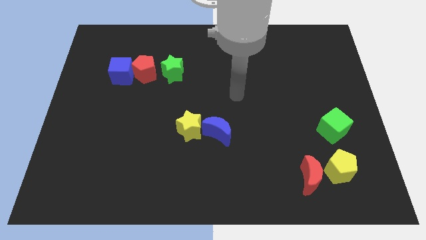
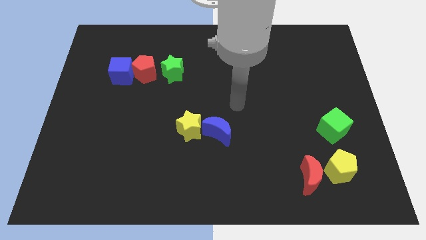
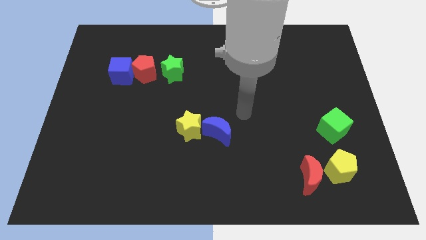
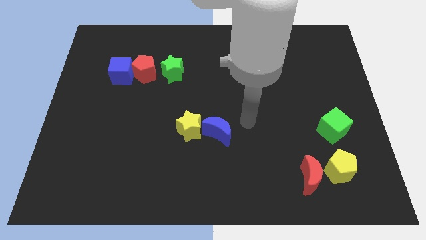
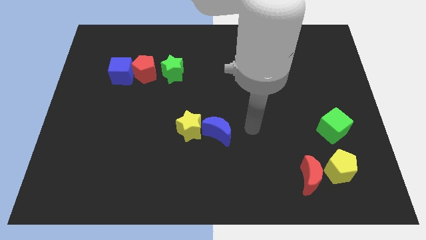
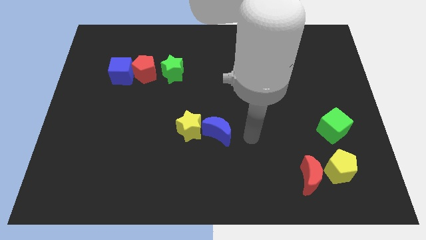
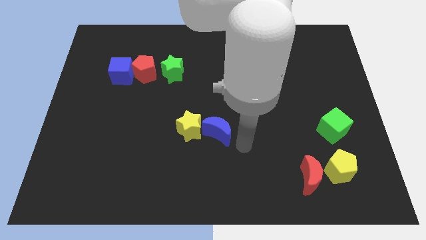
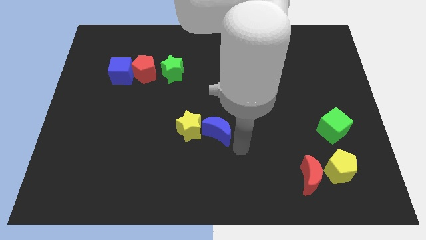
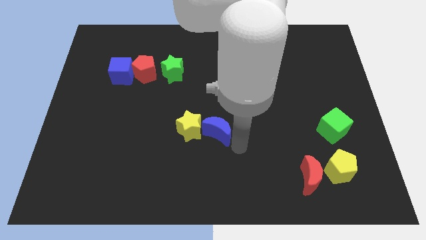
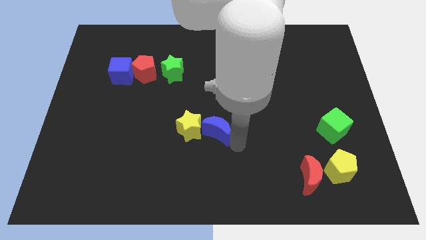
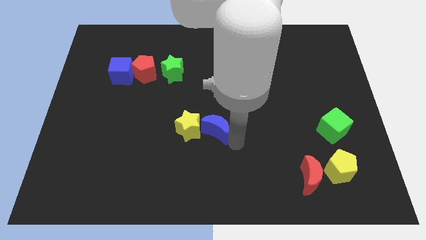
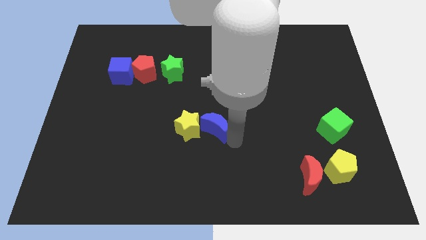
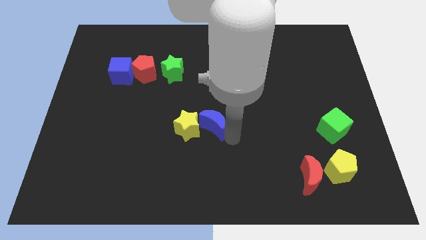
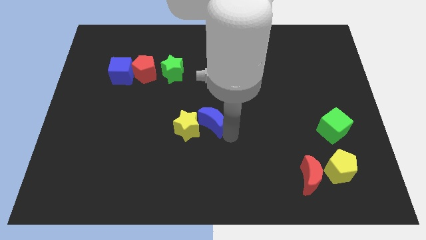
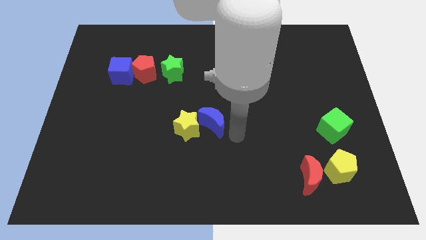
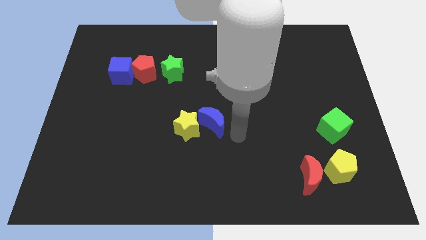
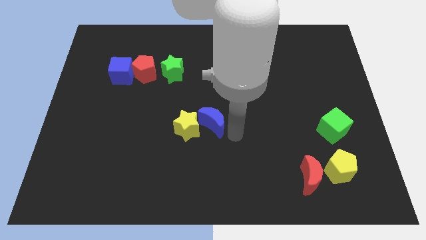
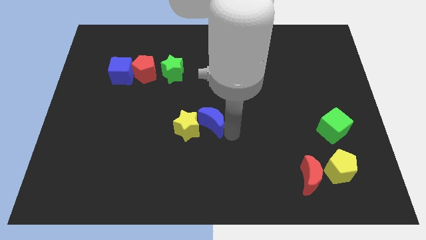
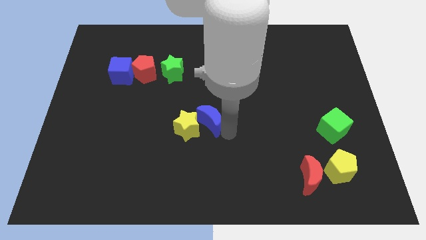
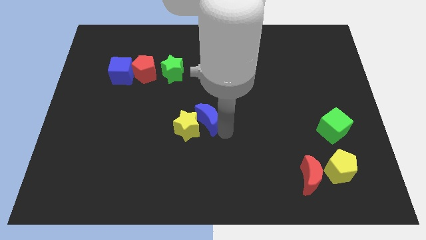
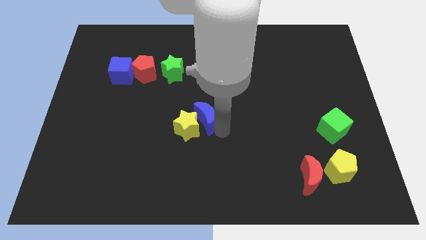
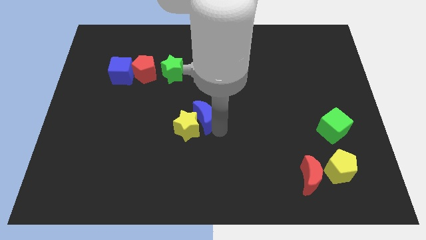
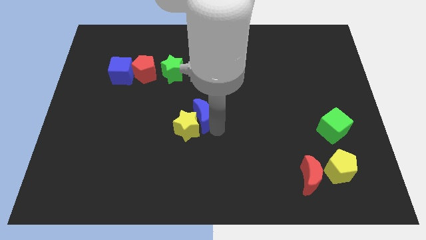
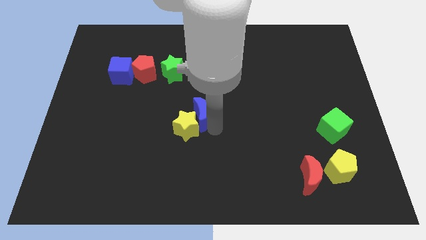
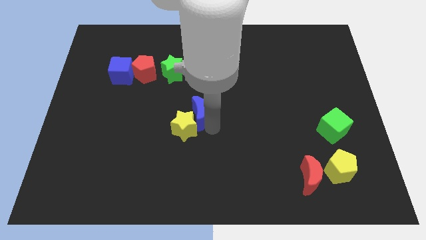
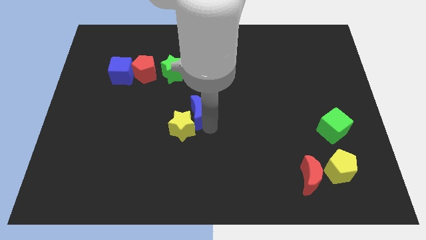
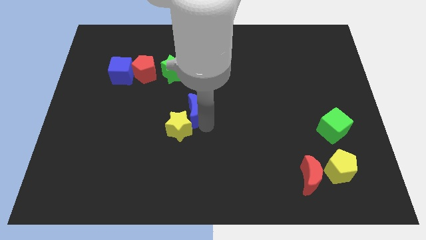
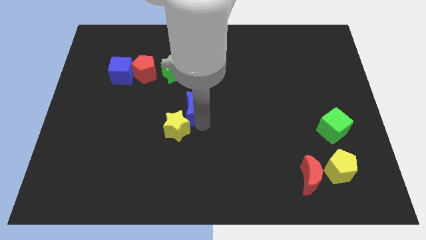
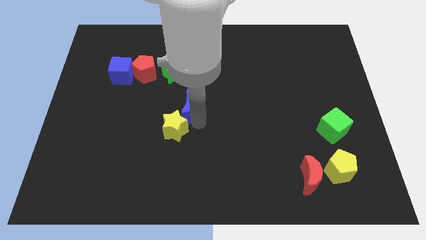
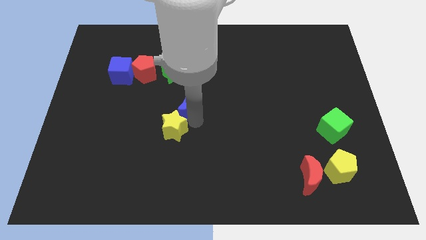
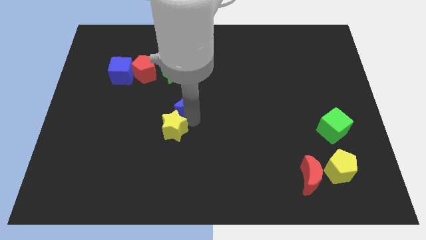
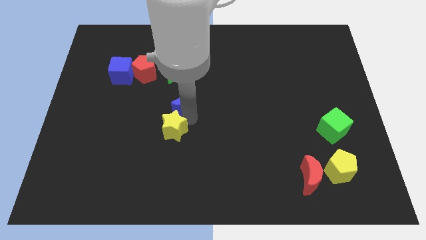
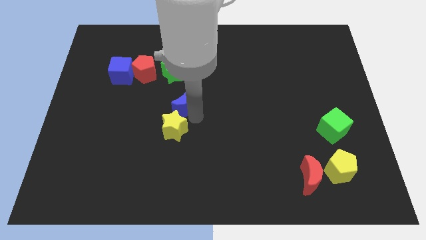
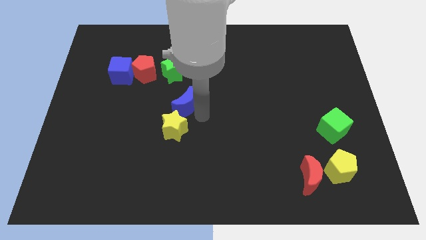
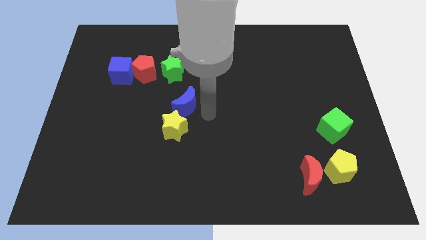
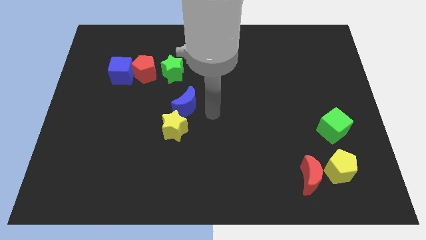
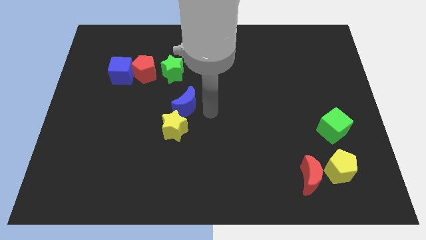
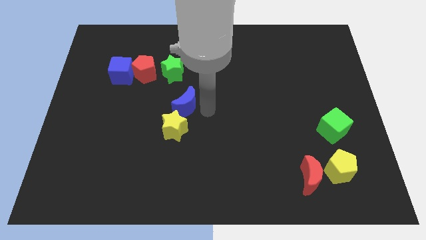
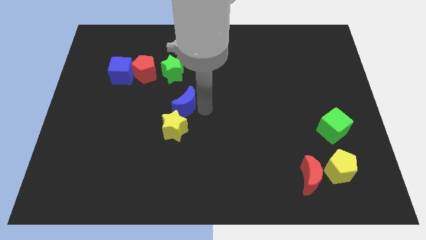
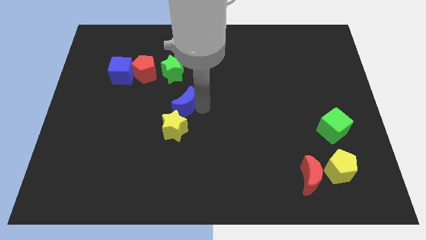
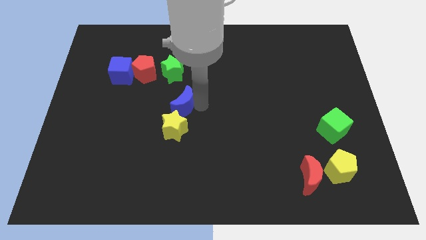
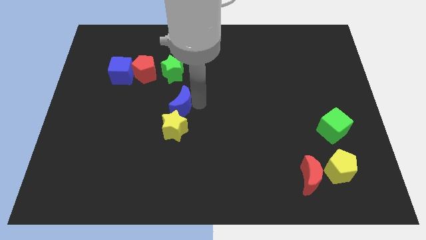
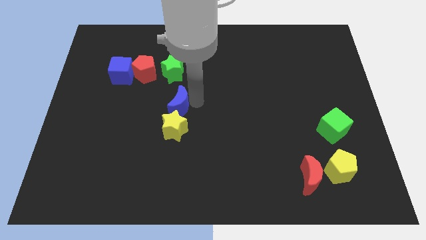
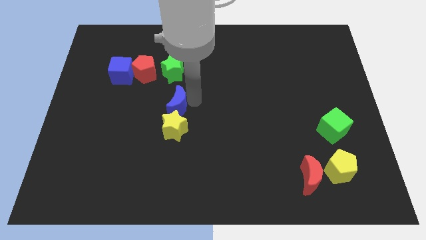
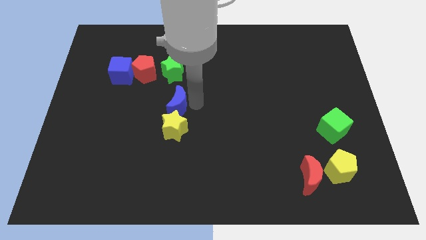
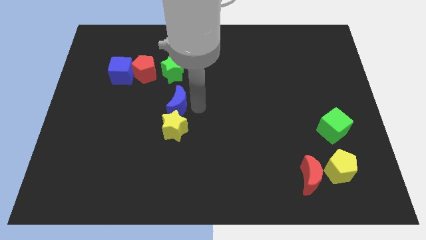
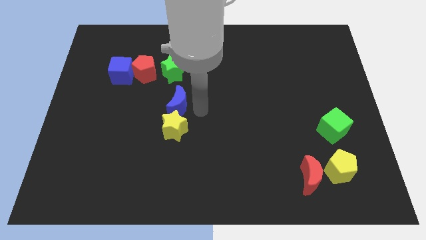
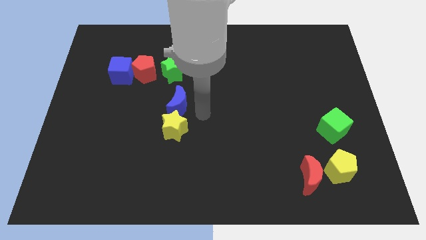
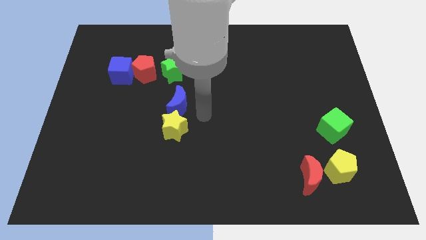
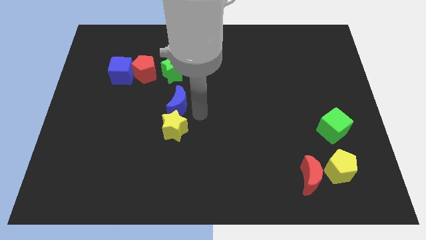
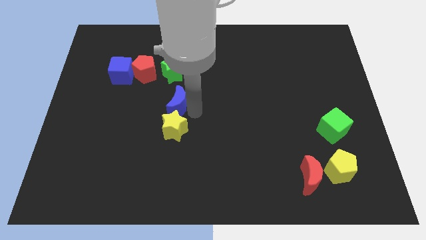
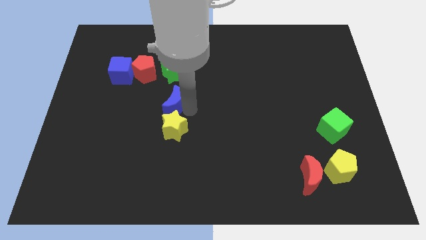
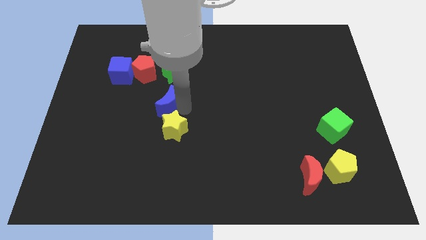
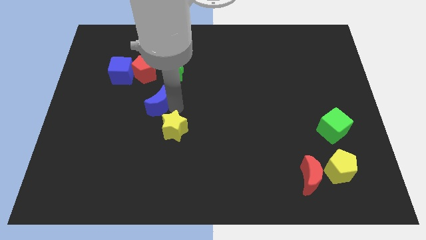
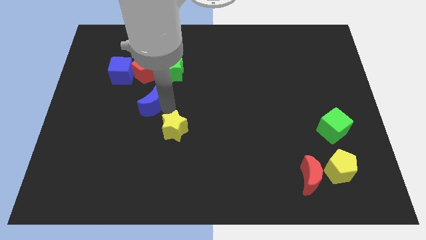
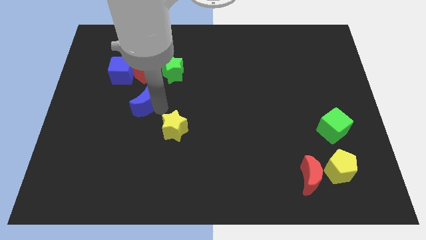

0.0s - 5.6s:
put the blue moon diagonally down and to the right of the blue cube

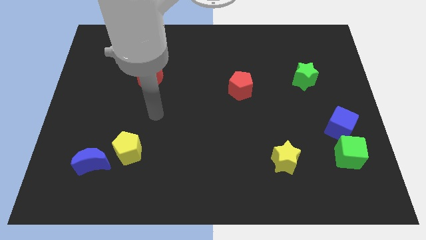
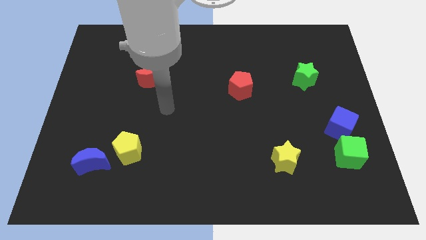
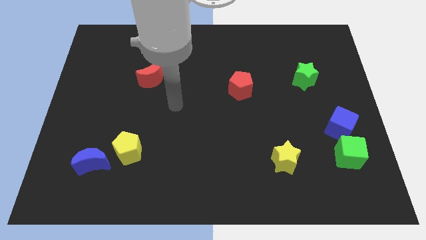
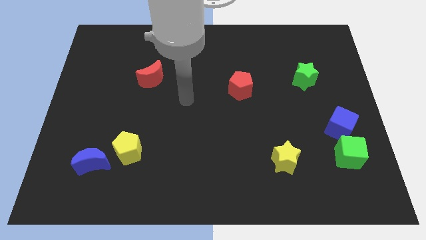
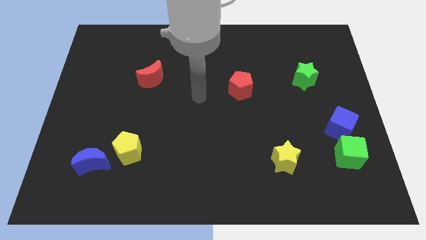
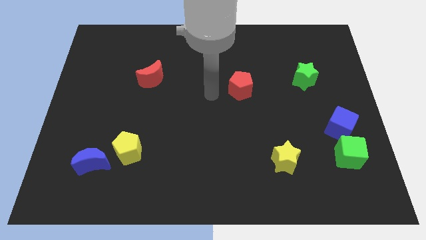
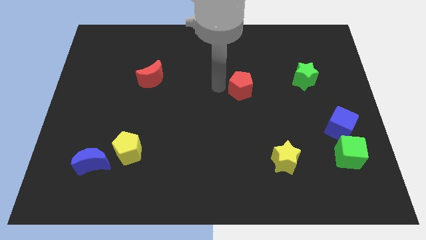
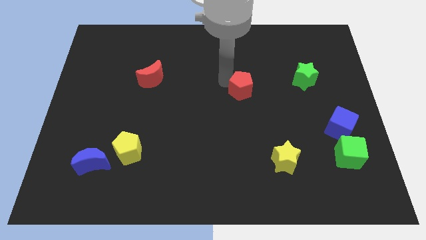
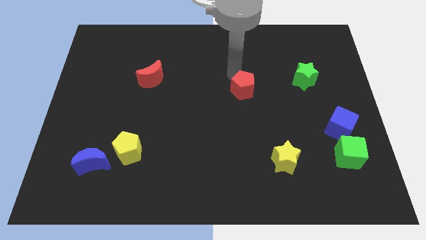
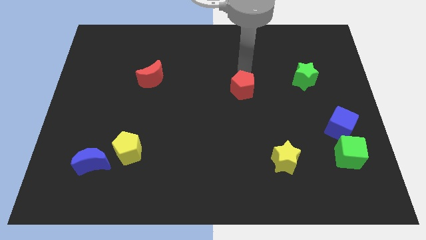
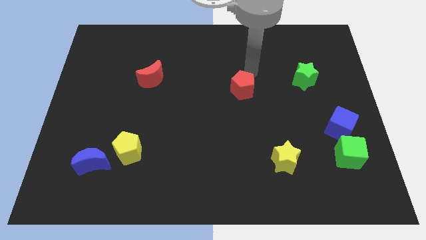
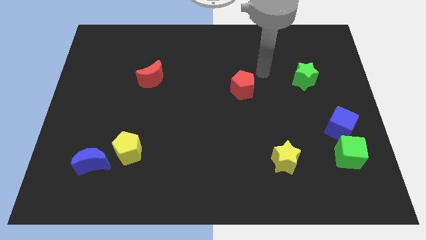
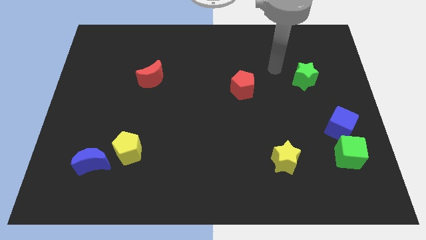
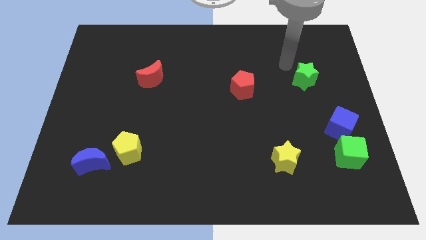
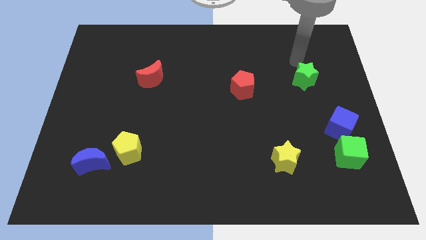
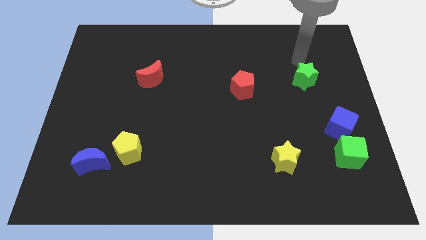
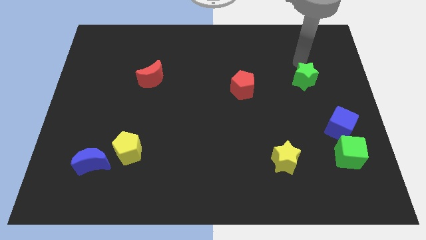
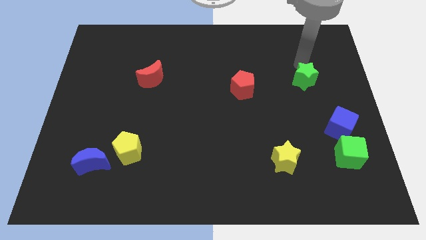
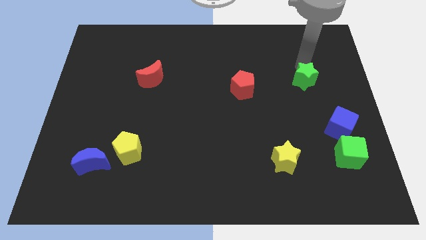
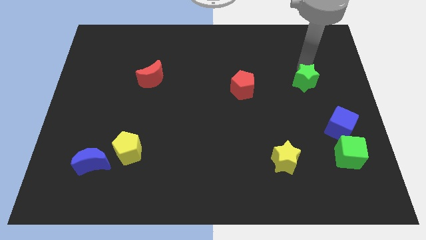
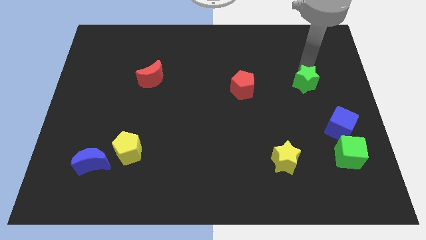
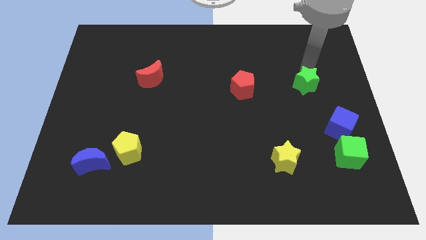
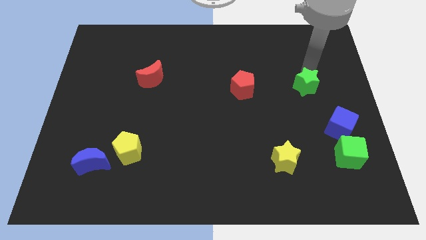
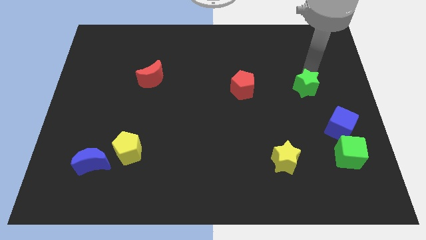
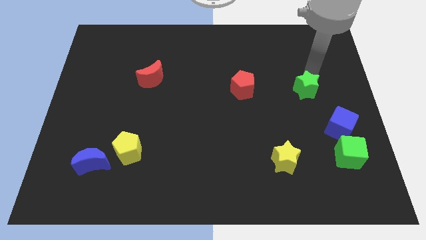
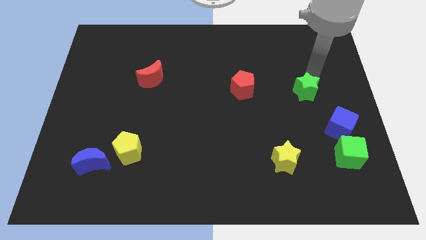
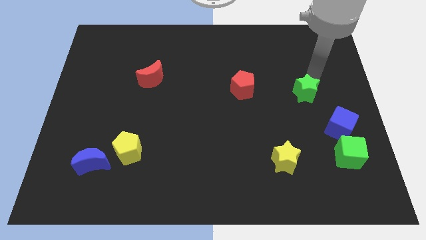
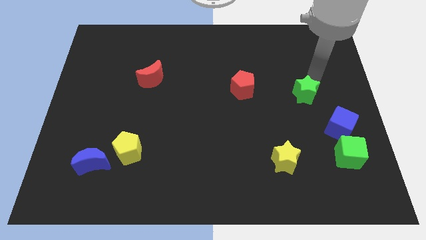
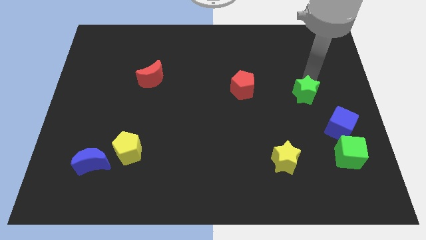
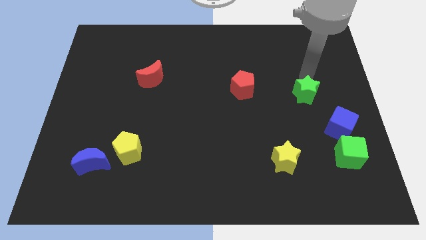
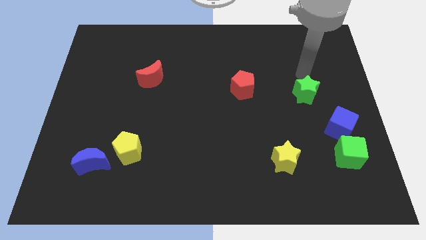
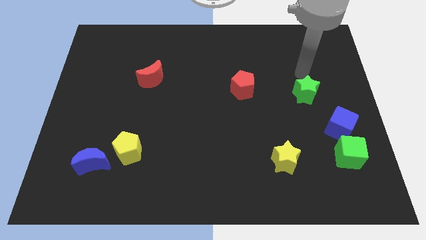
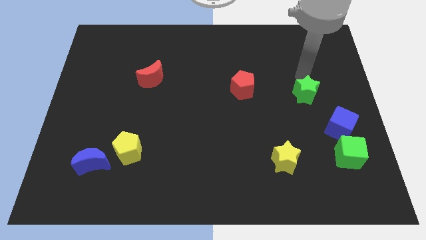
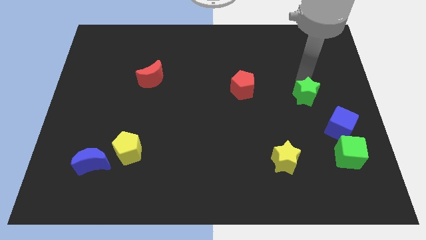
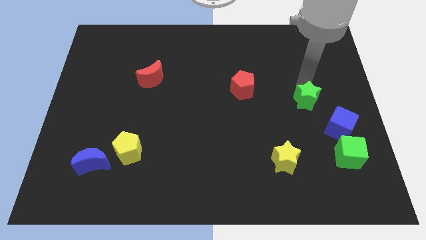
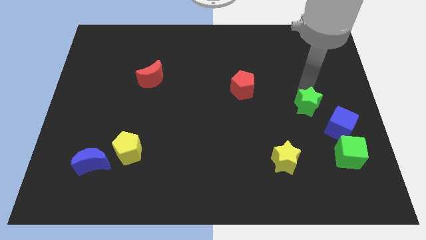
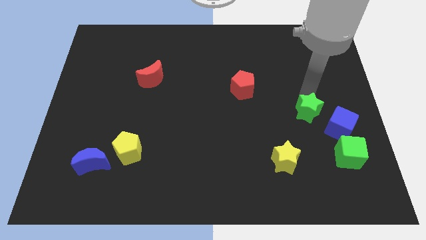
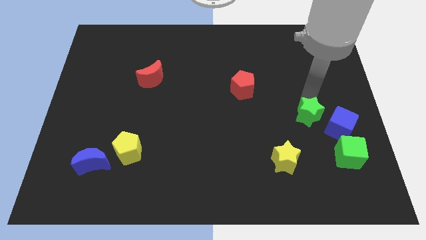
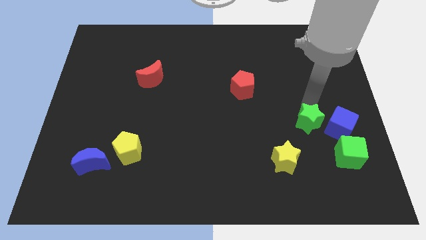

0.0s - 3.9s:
put the green star to the top right of the yellow star
